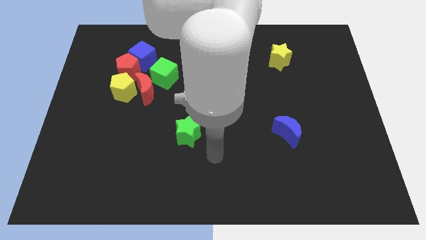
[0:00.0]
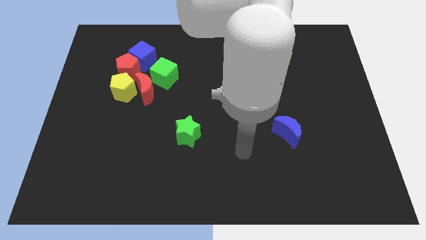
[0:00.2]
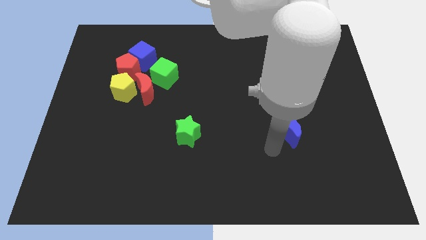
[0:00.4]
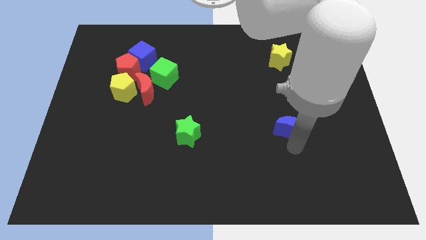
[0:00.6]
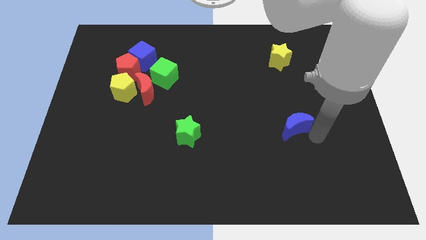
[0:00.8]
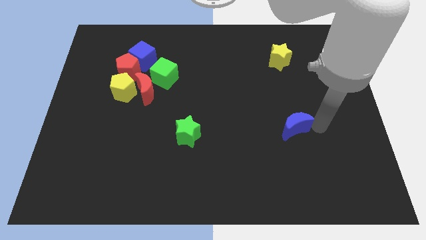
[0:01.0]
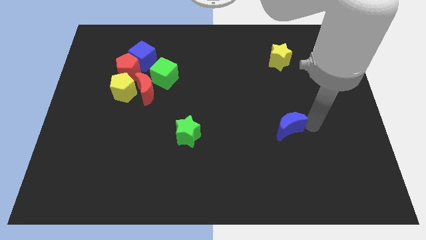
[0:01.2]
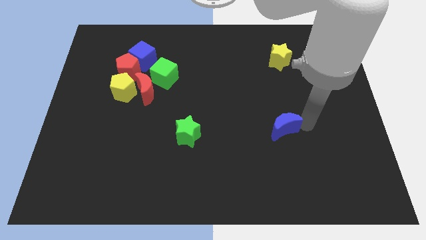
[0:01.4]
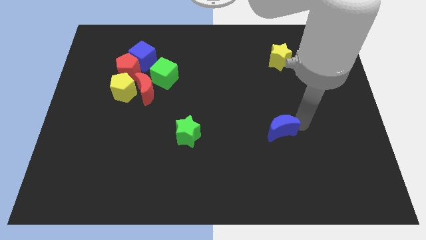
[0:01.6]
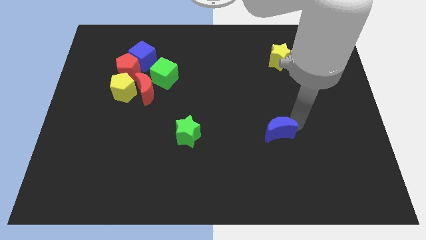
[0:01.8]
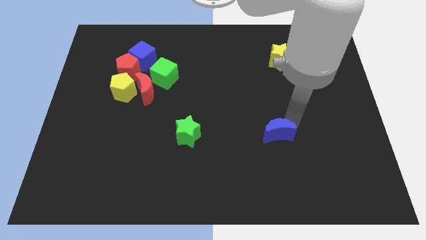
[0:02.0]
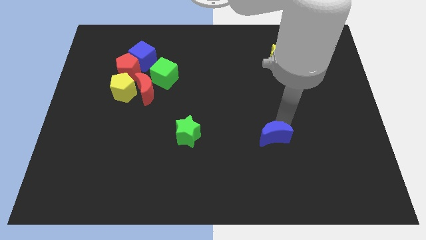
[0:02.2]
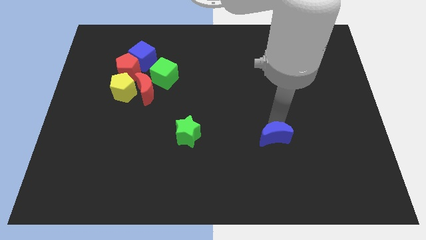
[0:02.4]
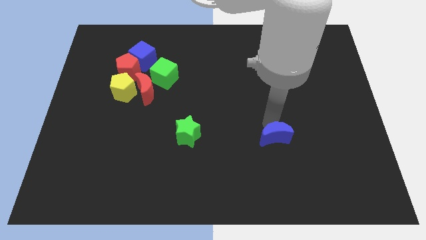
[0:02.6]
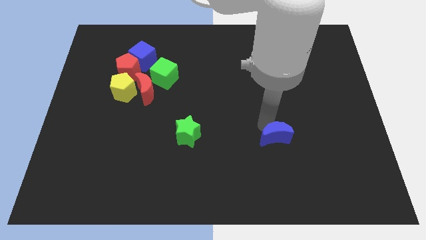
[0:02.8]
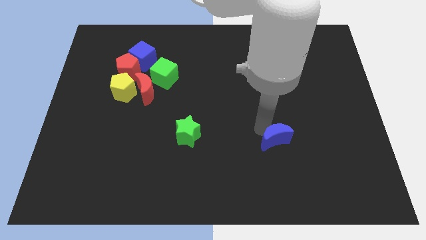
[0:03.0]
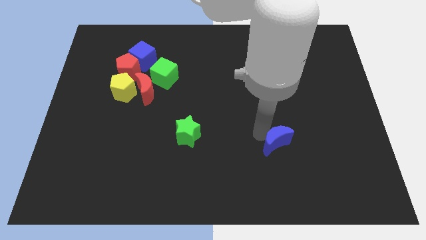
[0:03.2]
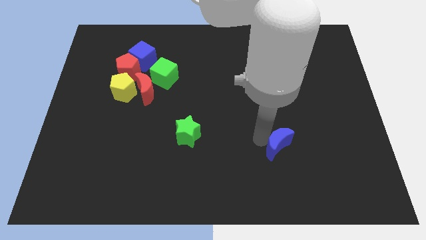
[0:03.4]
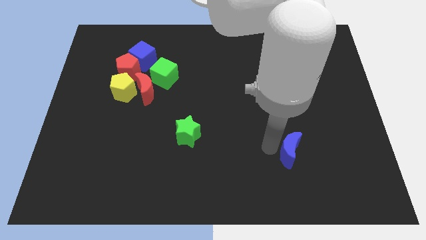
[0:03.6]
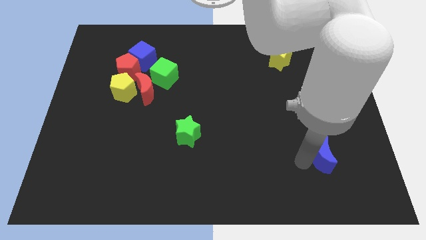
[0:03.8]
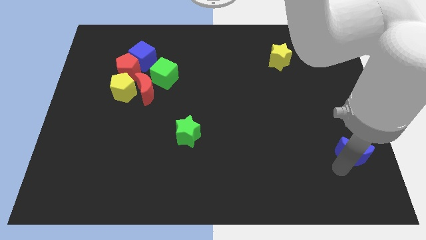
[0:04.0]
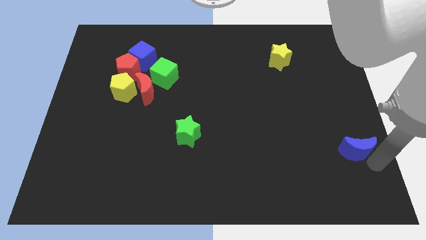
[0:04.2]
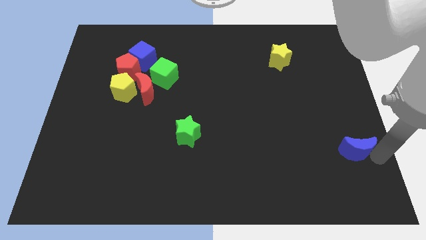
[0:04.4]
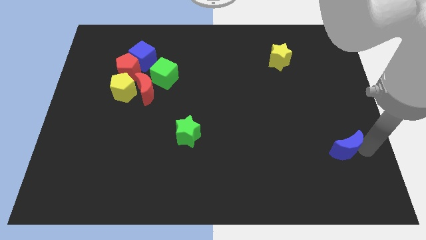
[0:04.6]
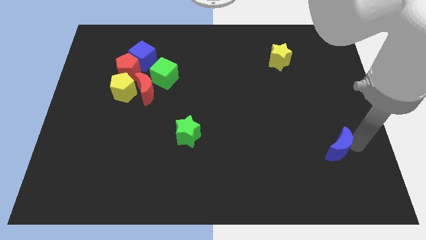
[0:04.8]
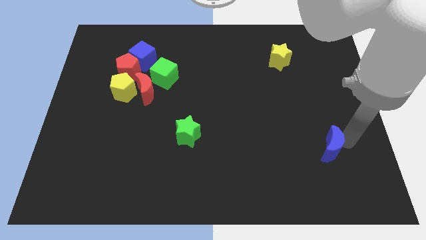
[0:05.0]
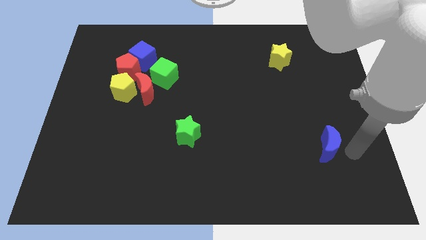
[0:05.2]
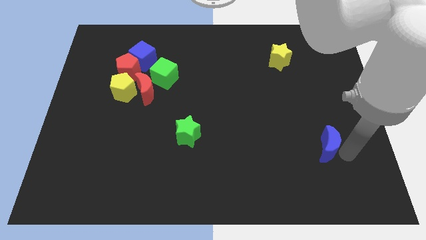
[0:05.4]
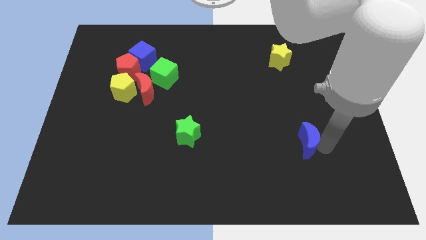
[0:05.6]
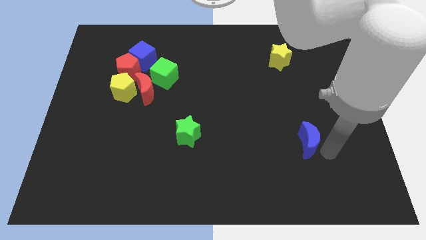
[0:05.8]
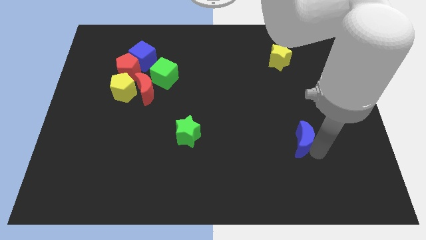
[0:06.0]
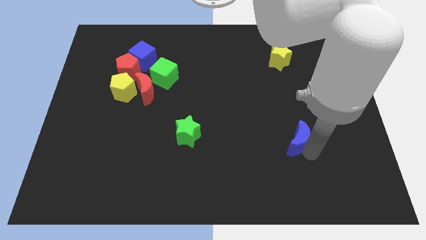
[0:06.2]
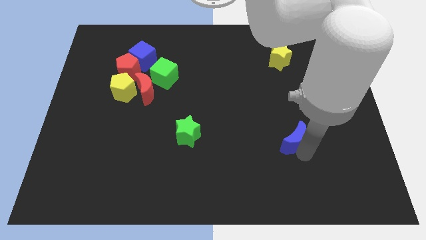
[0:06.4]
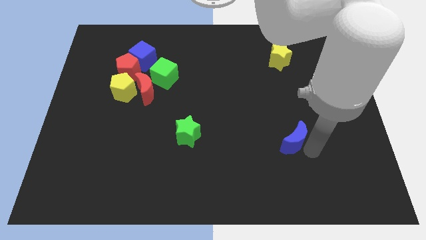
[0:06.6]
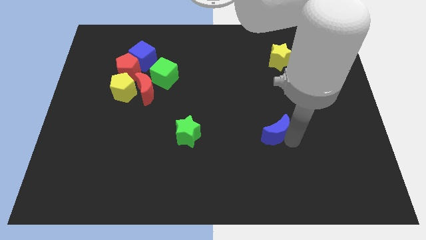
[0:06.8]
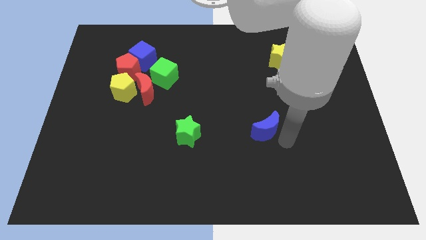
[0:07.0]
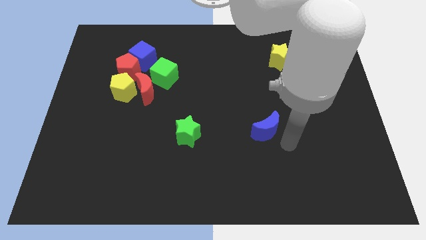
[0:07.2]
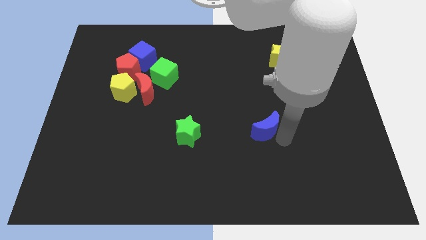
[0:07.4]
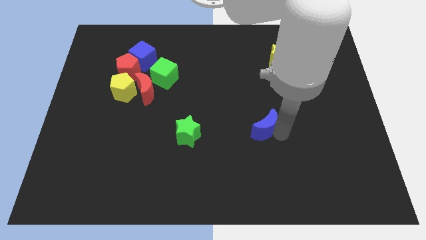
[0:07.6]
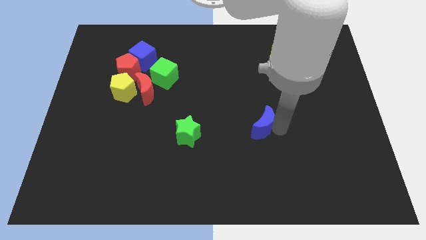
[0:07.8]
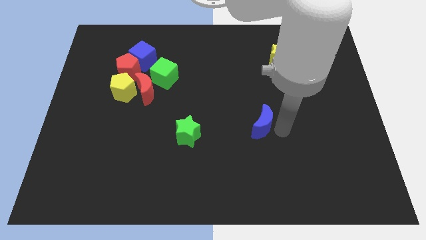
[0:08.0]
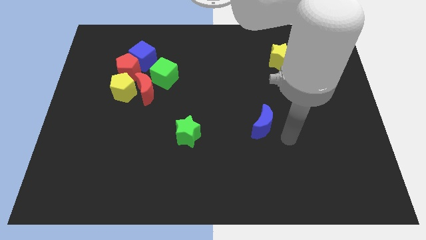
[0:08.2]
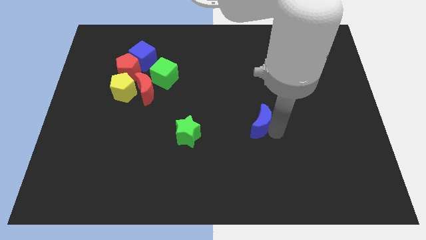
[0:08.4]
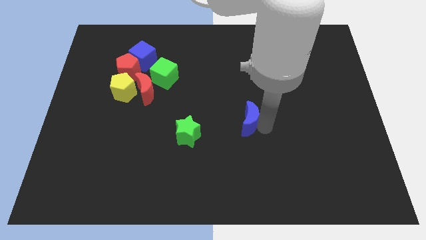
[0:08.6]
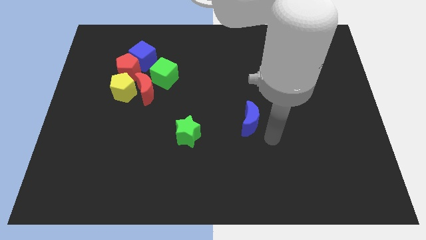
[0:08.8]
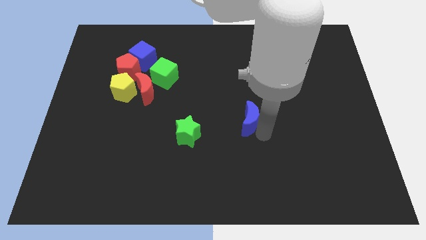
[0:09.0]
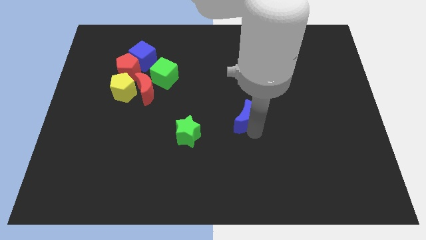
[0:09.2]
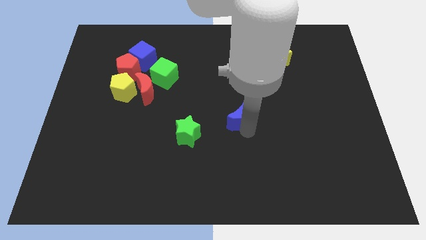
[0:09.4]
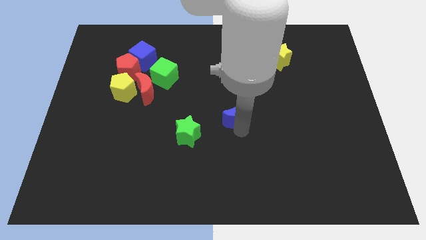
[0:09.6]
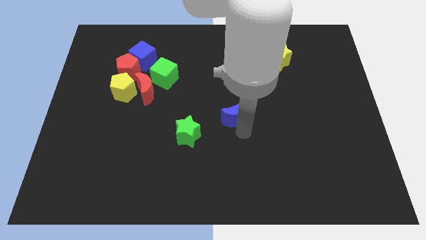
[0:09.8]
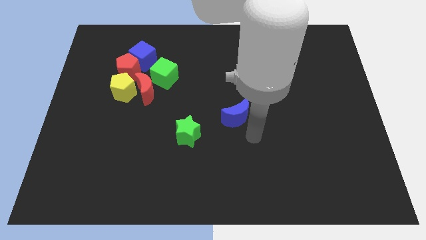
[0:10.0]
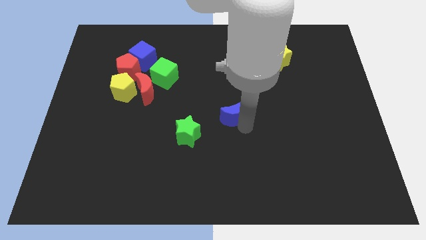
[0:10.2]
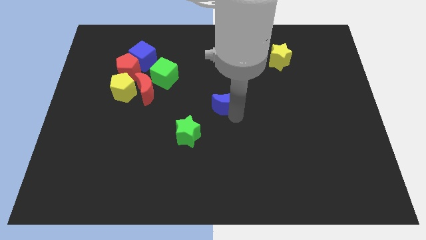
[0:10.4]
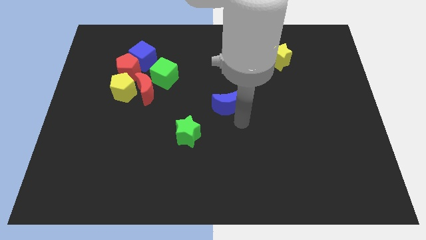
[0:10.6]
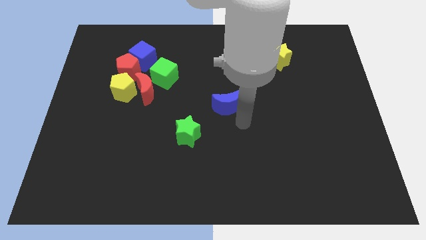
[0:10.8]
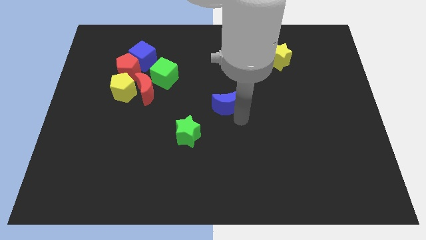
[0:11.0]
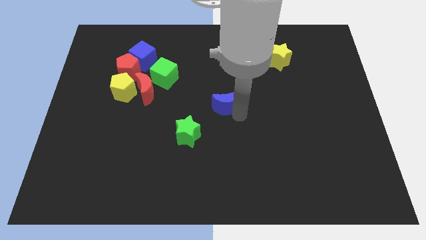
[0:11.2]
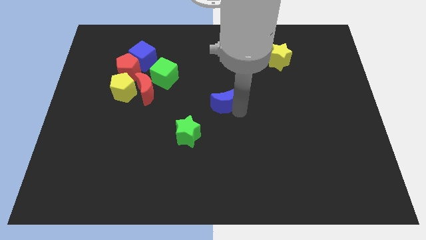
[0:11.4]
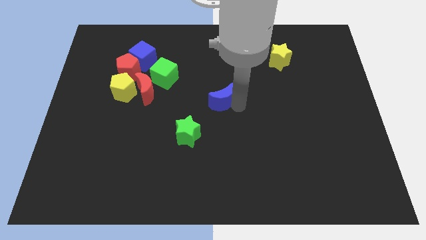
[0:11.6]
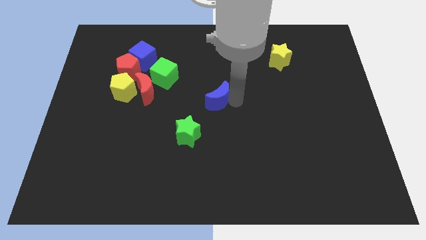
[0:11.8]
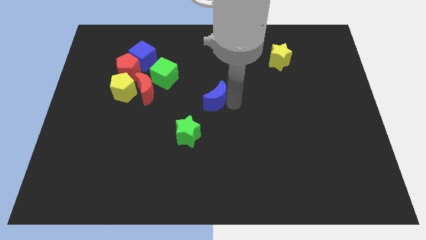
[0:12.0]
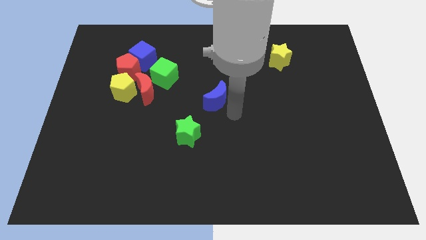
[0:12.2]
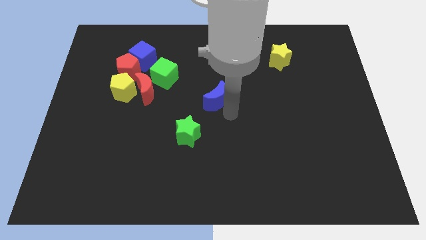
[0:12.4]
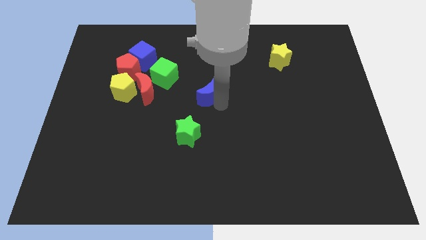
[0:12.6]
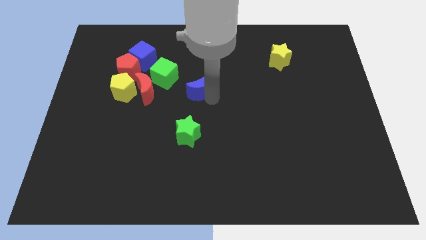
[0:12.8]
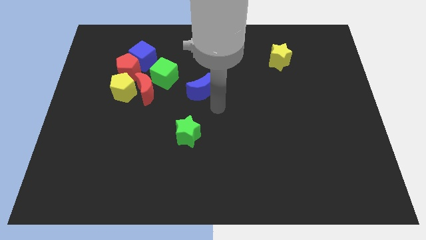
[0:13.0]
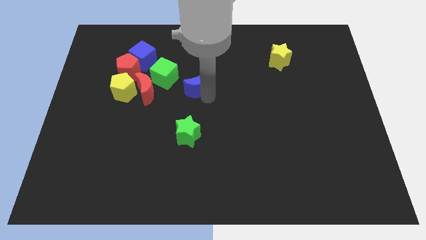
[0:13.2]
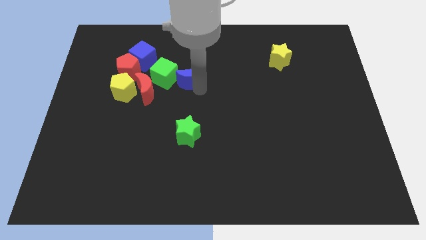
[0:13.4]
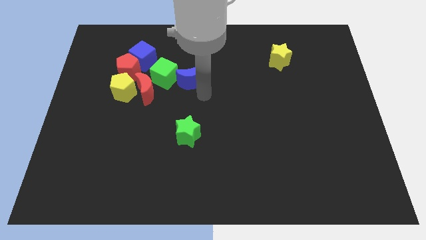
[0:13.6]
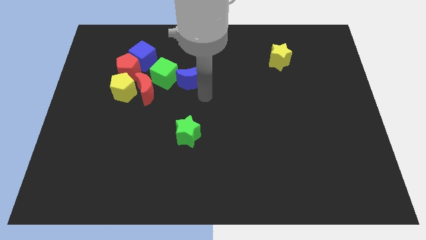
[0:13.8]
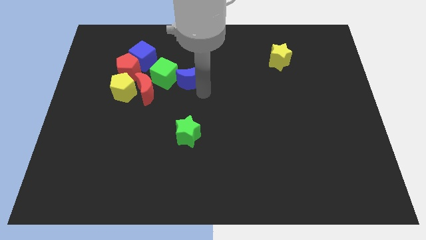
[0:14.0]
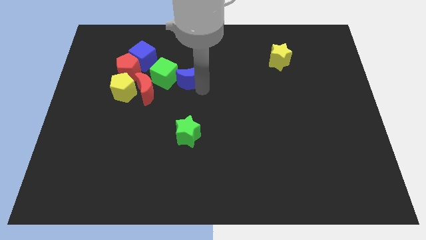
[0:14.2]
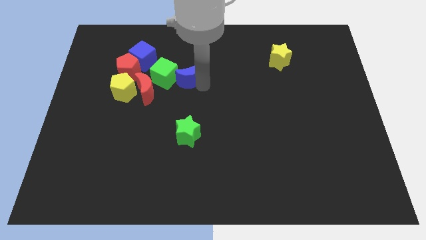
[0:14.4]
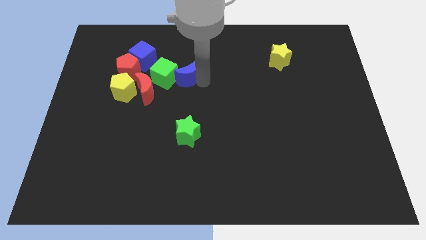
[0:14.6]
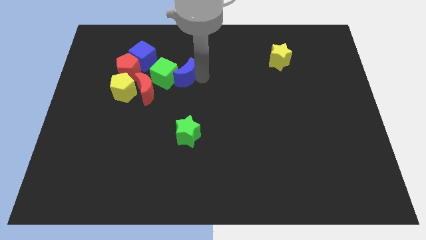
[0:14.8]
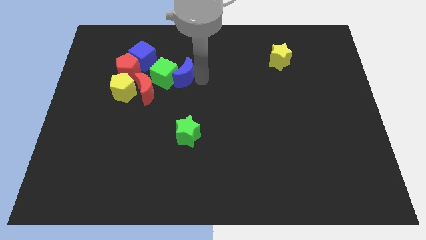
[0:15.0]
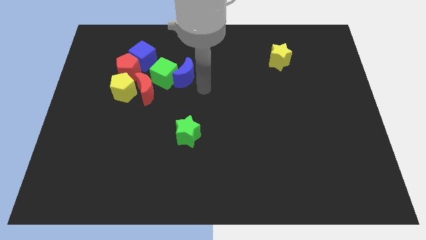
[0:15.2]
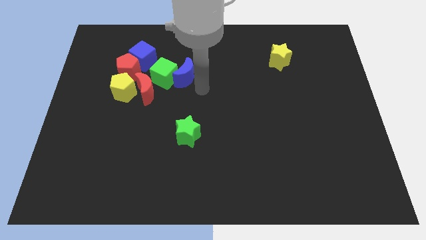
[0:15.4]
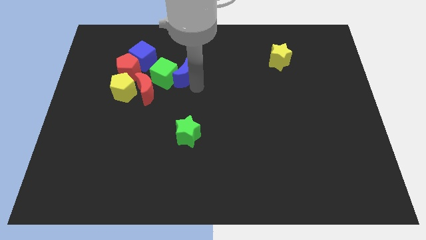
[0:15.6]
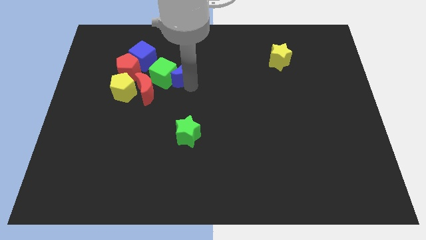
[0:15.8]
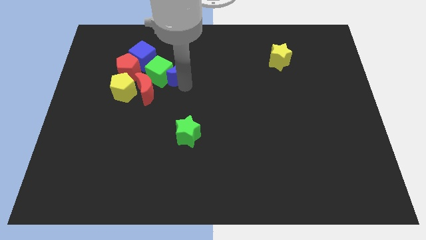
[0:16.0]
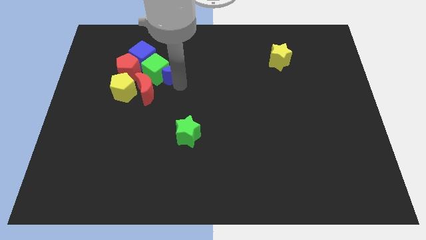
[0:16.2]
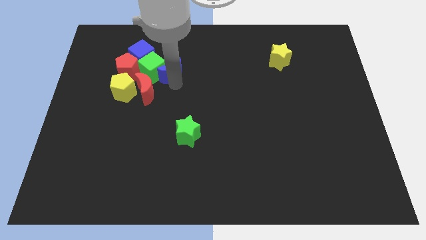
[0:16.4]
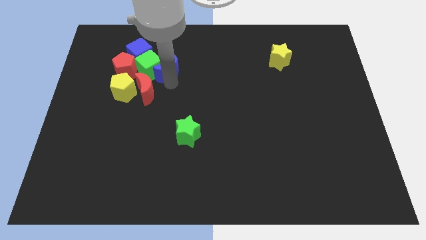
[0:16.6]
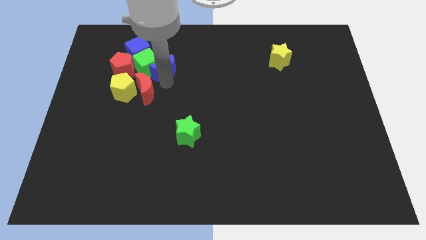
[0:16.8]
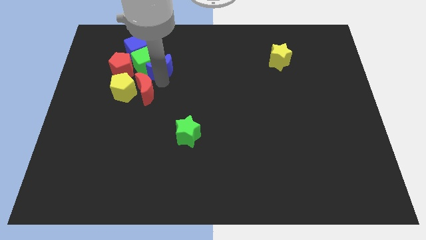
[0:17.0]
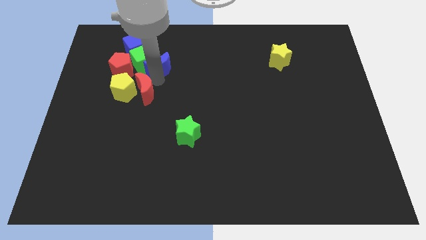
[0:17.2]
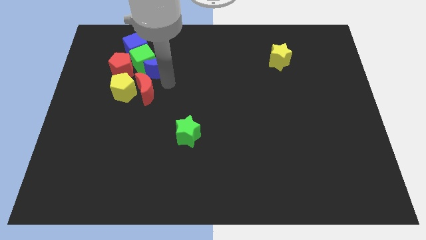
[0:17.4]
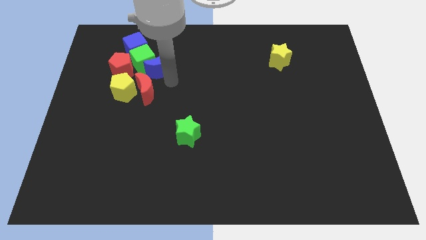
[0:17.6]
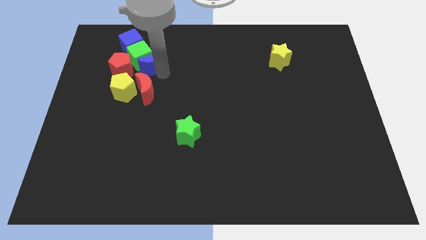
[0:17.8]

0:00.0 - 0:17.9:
slide the blue moon to the top right side of the red pentagon
